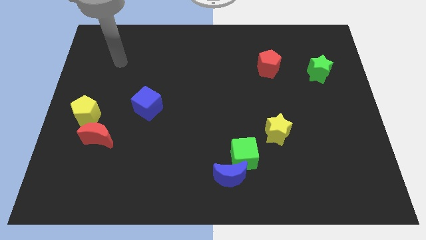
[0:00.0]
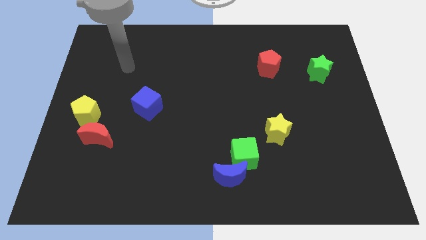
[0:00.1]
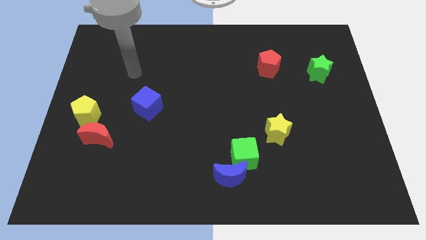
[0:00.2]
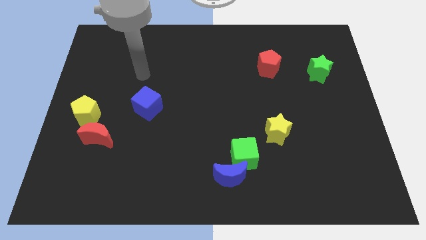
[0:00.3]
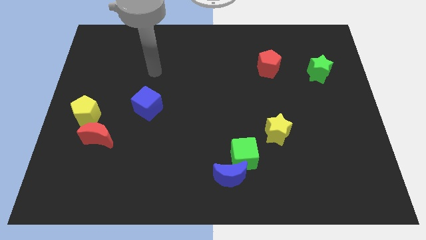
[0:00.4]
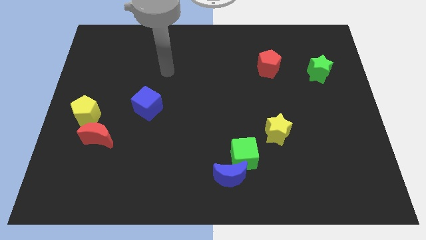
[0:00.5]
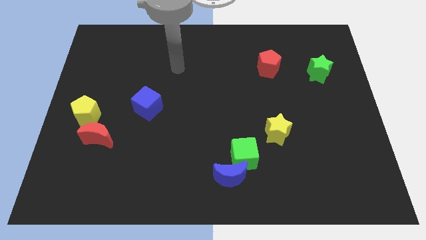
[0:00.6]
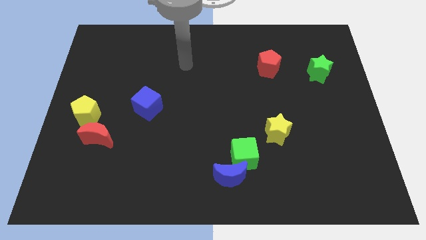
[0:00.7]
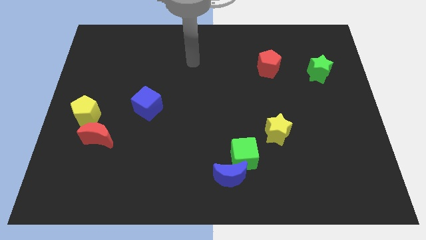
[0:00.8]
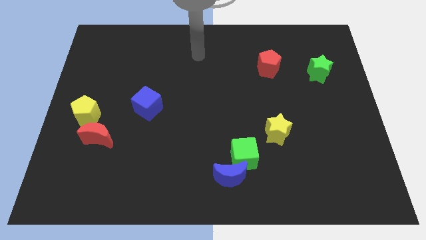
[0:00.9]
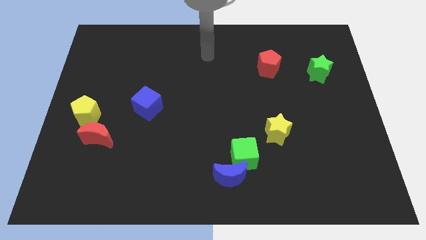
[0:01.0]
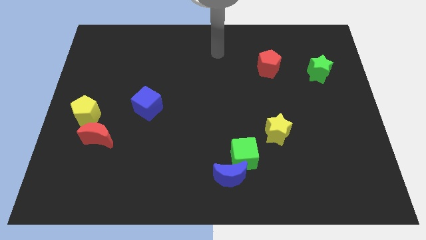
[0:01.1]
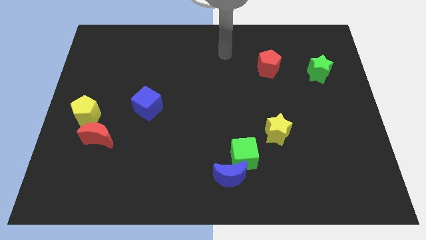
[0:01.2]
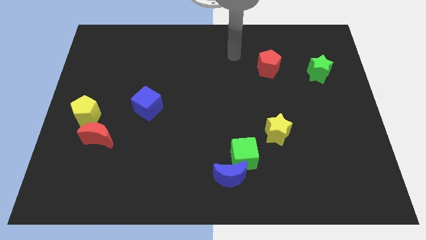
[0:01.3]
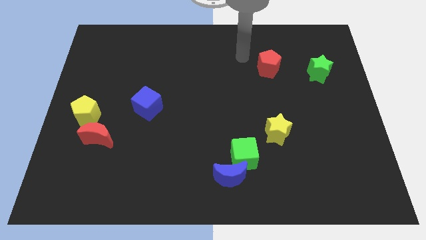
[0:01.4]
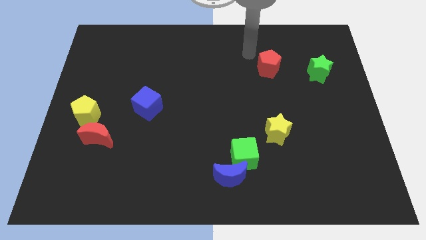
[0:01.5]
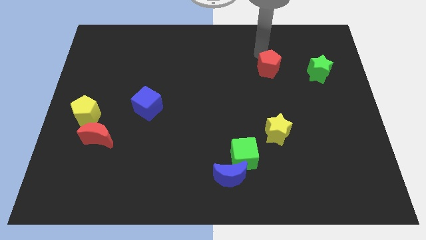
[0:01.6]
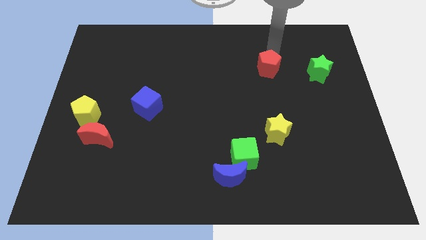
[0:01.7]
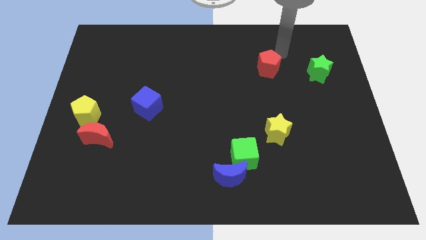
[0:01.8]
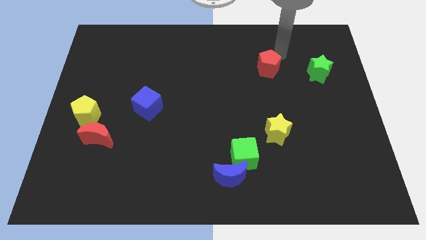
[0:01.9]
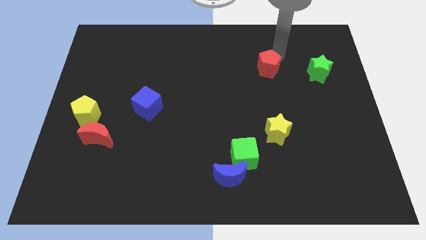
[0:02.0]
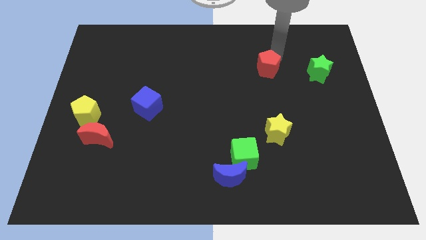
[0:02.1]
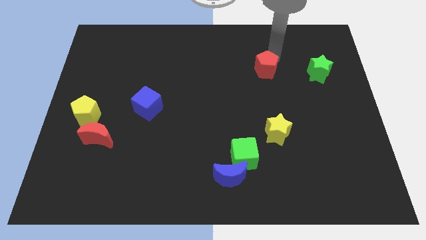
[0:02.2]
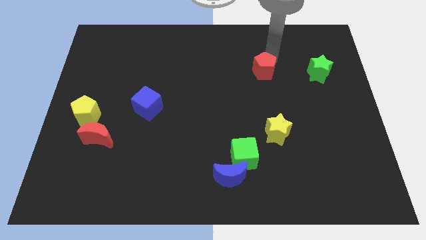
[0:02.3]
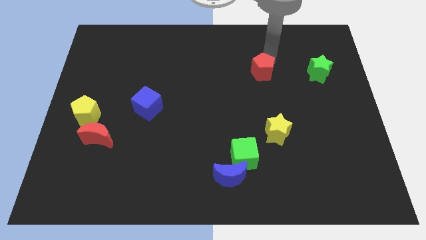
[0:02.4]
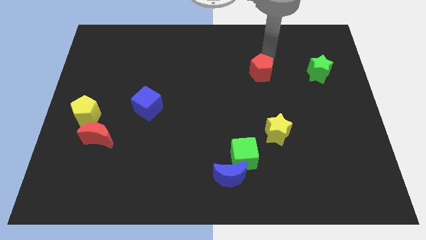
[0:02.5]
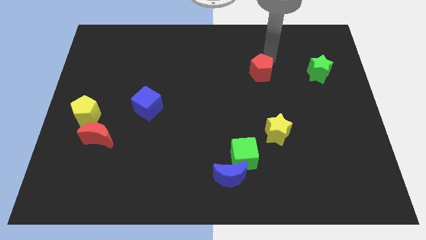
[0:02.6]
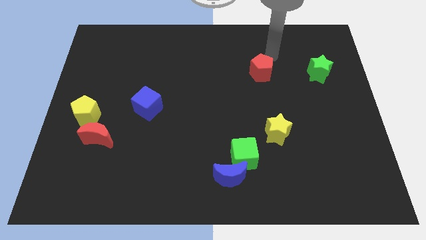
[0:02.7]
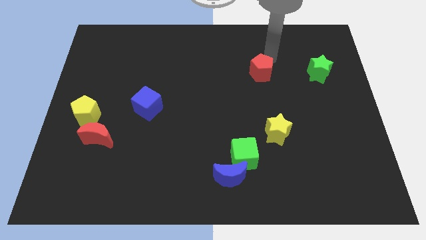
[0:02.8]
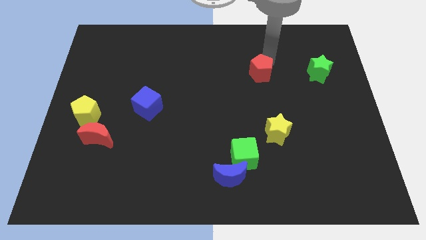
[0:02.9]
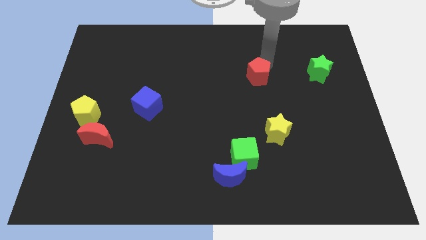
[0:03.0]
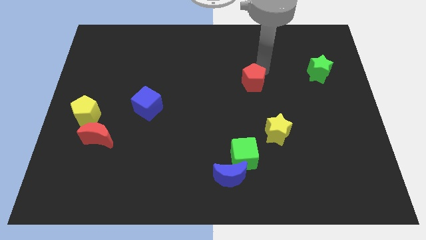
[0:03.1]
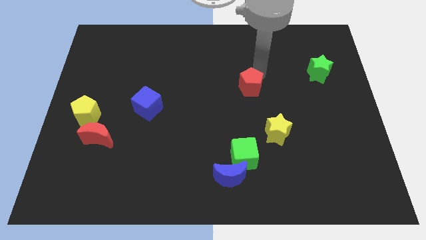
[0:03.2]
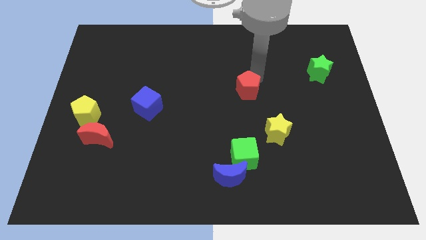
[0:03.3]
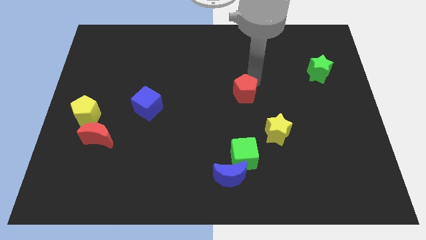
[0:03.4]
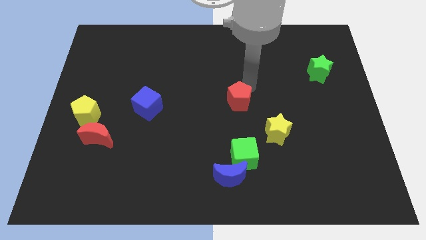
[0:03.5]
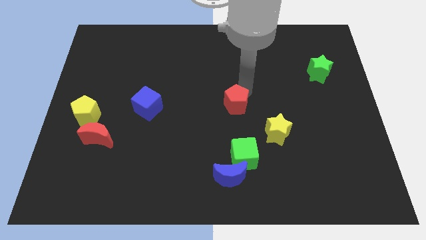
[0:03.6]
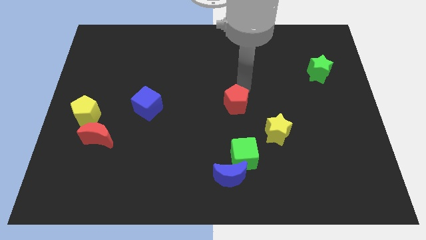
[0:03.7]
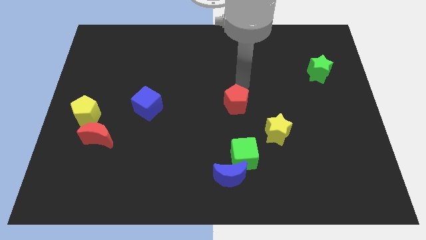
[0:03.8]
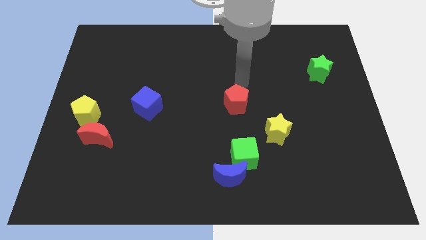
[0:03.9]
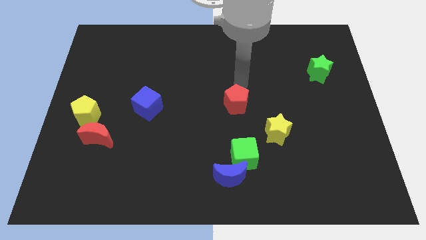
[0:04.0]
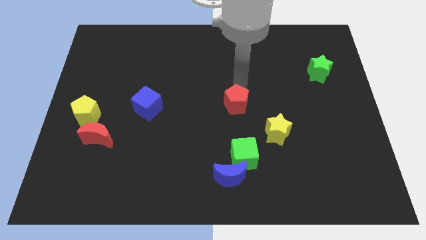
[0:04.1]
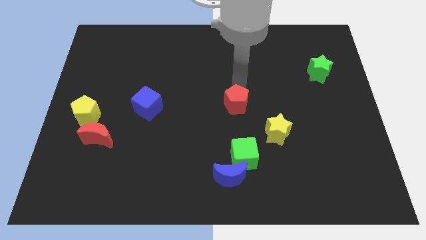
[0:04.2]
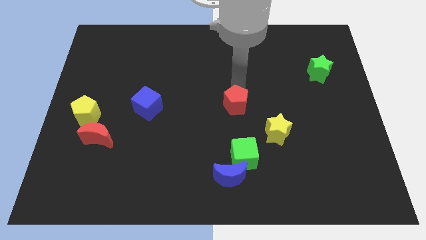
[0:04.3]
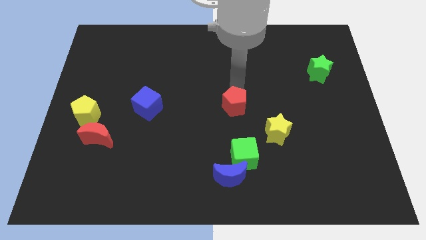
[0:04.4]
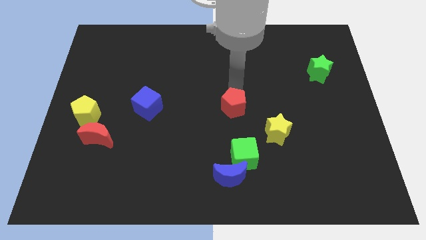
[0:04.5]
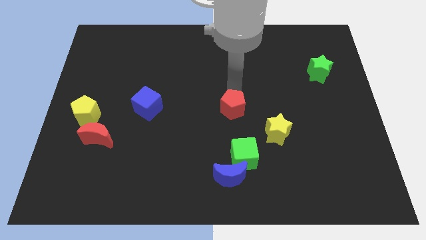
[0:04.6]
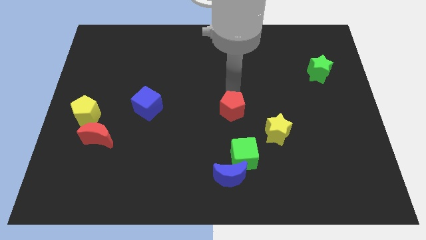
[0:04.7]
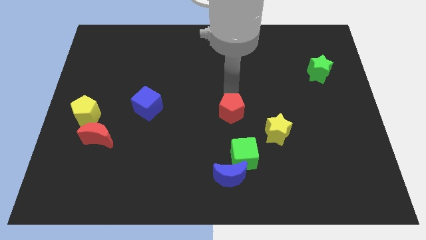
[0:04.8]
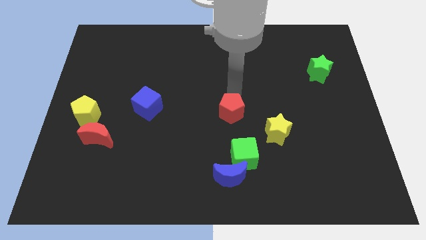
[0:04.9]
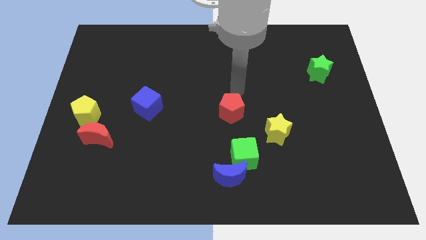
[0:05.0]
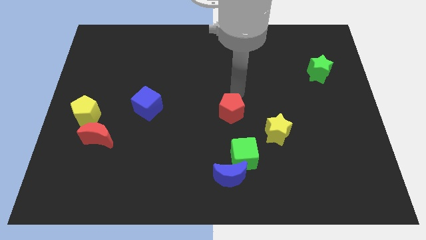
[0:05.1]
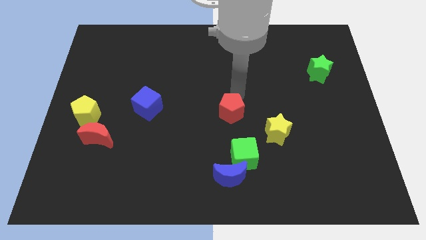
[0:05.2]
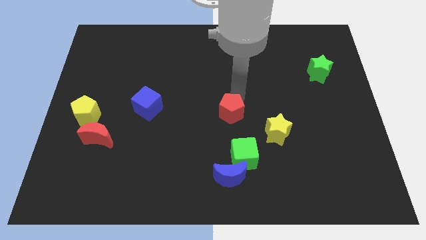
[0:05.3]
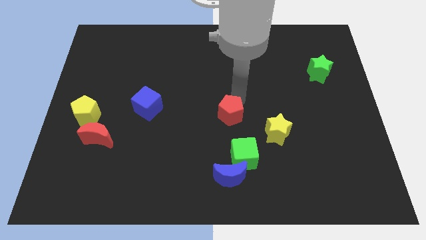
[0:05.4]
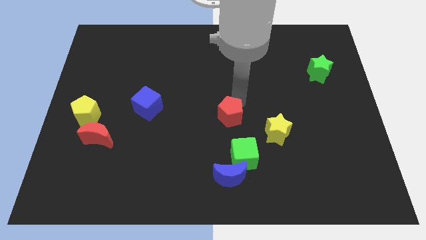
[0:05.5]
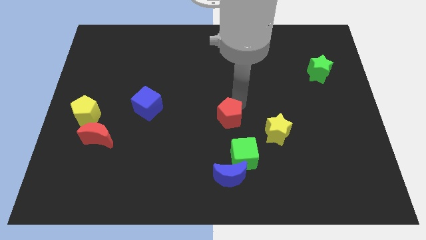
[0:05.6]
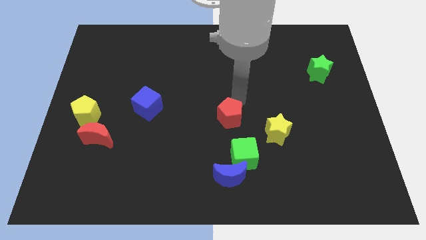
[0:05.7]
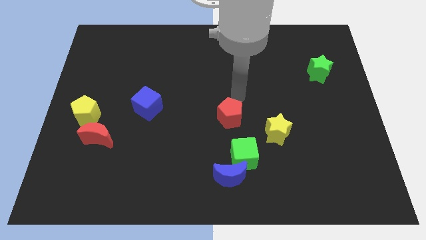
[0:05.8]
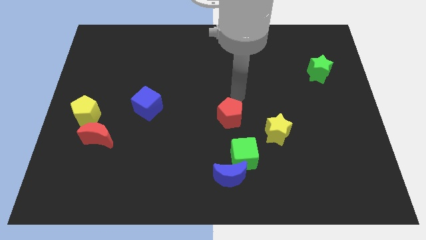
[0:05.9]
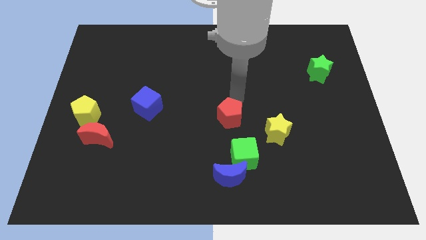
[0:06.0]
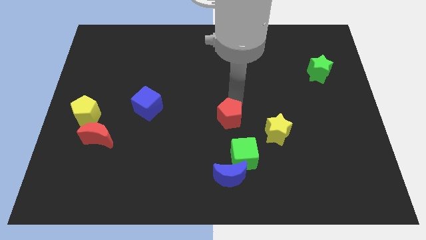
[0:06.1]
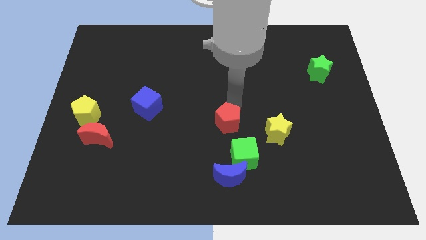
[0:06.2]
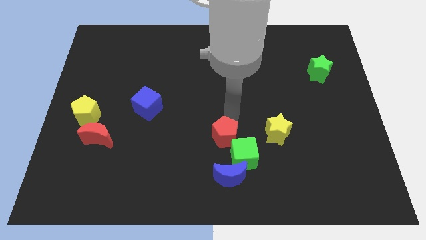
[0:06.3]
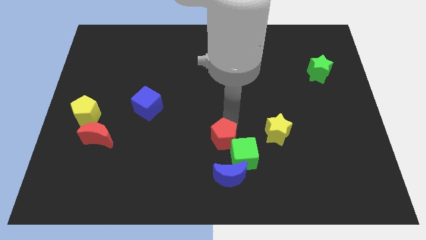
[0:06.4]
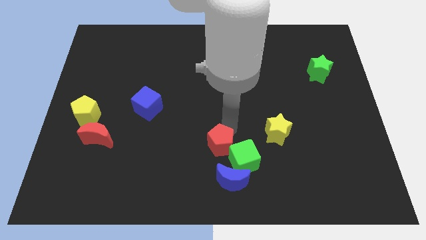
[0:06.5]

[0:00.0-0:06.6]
push the red pentagon diagonally up and to the left of the blue moon

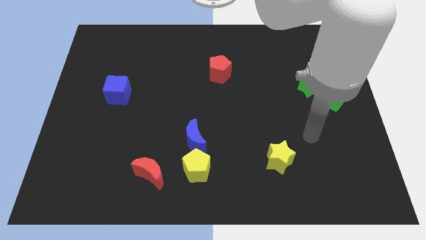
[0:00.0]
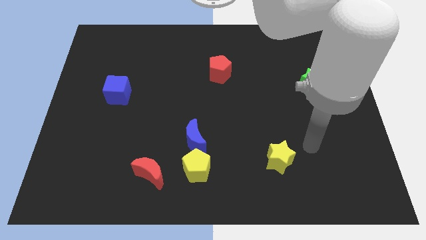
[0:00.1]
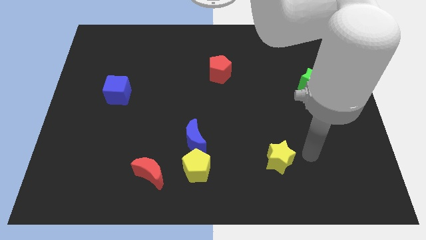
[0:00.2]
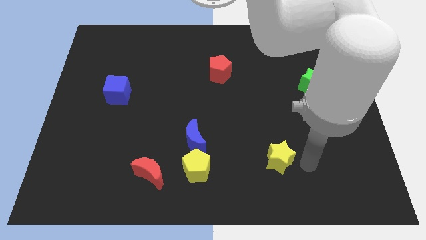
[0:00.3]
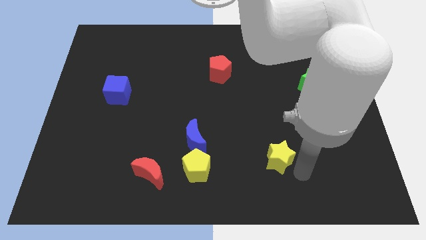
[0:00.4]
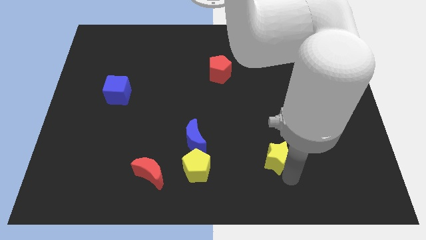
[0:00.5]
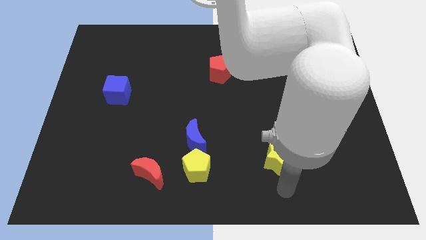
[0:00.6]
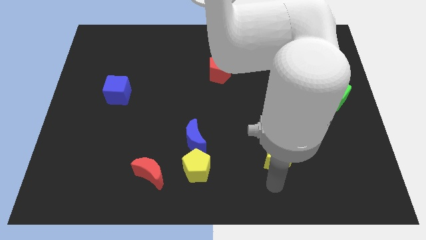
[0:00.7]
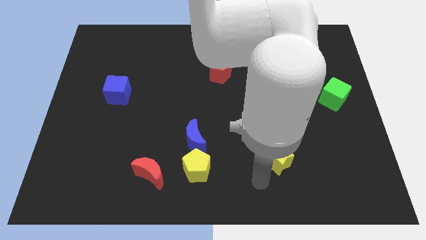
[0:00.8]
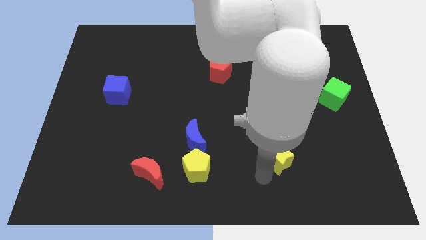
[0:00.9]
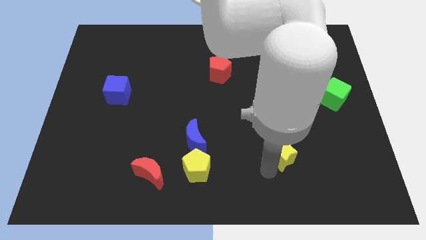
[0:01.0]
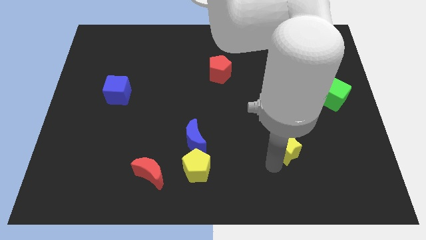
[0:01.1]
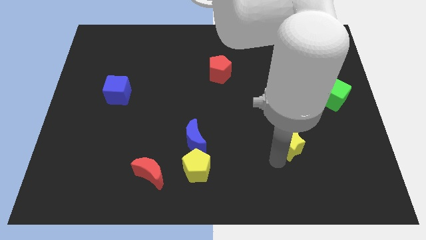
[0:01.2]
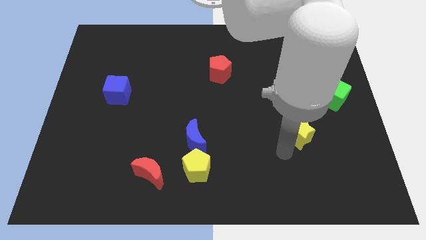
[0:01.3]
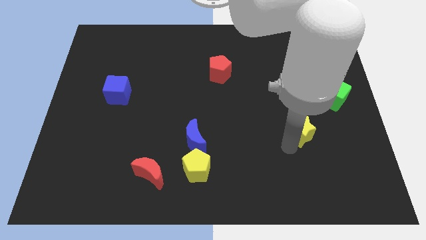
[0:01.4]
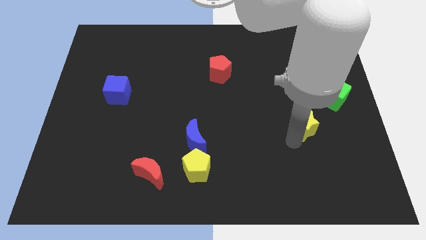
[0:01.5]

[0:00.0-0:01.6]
put the yellow star diagonally down and to the left of the green cube

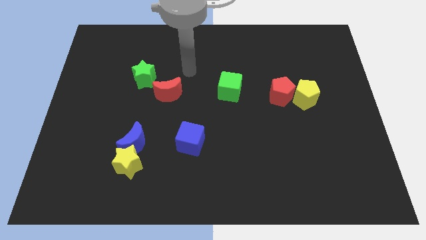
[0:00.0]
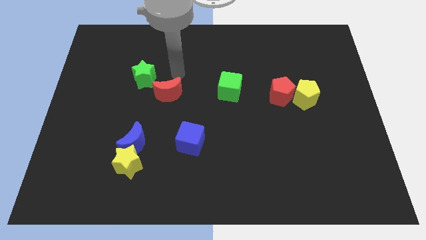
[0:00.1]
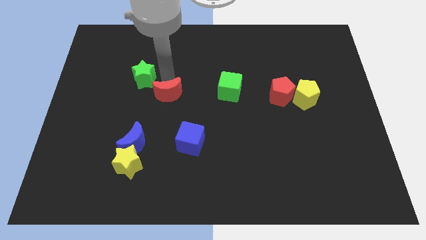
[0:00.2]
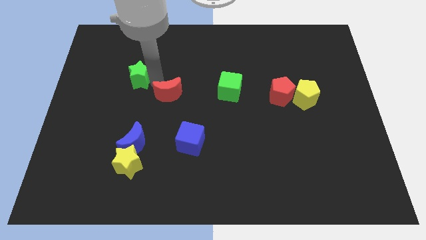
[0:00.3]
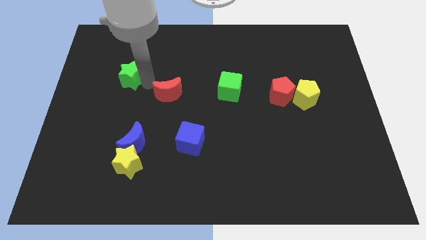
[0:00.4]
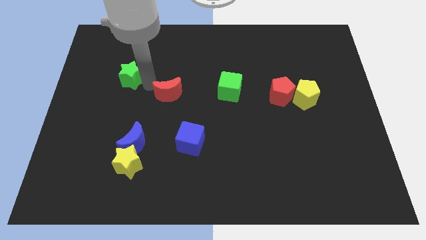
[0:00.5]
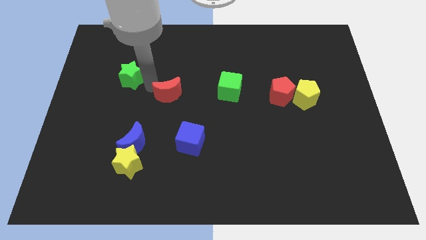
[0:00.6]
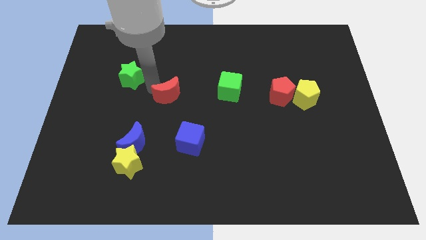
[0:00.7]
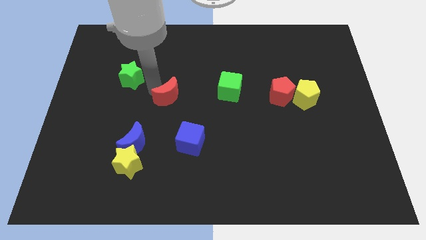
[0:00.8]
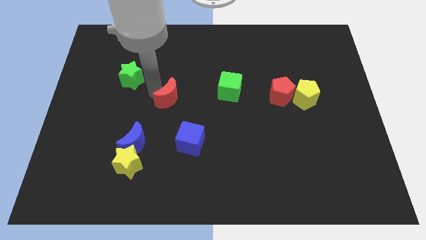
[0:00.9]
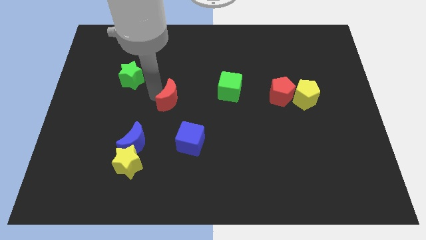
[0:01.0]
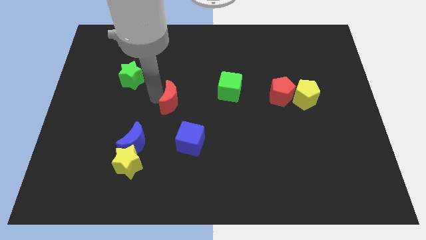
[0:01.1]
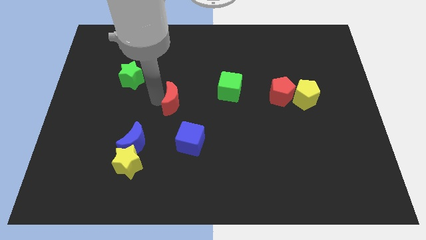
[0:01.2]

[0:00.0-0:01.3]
put the red moon to the top side of the blue cube
